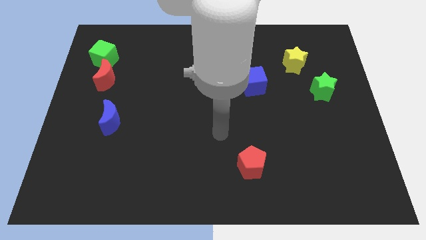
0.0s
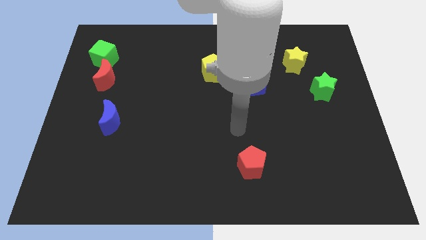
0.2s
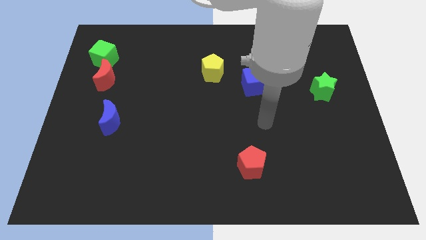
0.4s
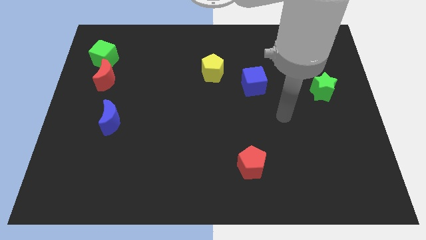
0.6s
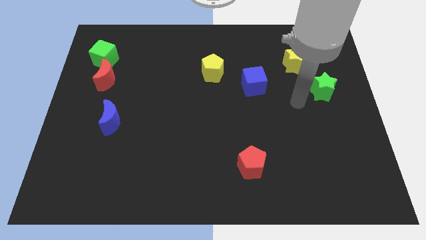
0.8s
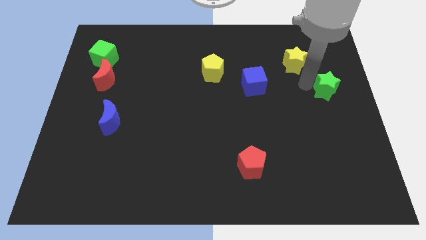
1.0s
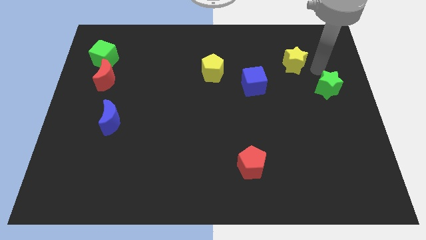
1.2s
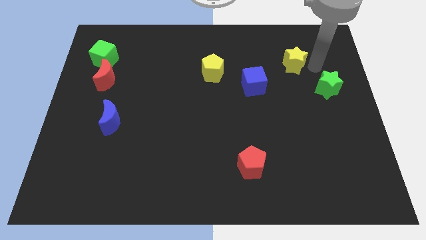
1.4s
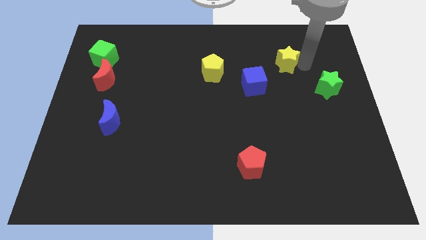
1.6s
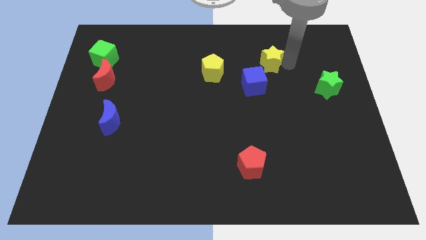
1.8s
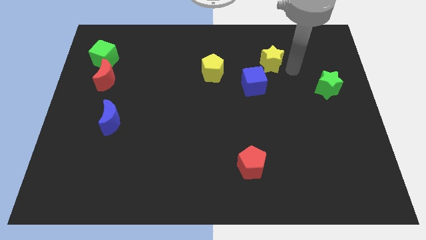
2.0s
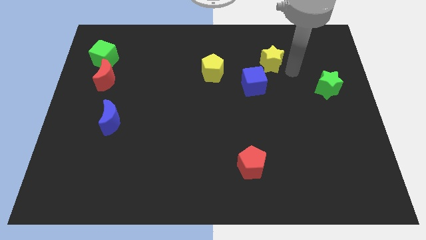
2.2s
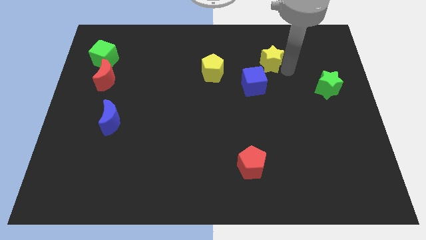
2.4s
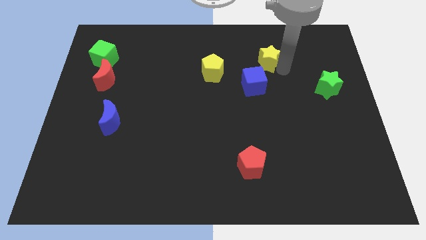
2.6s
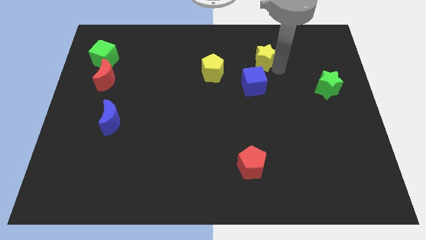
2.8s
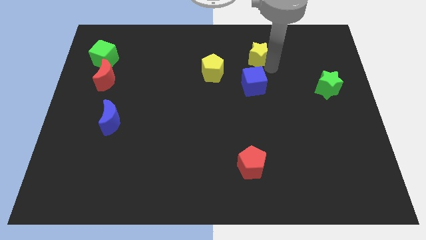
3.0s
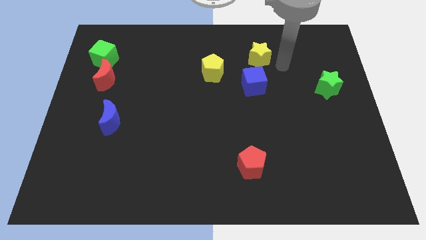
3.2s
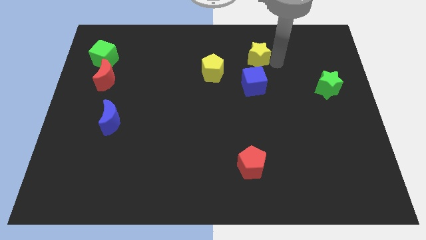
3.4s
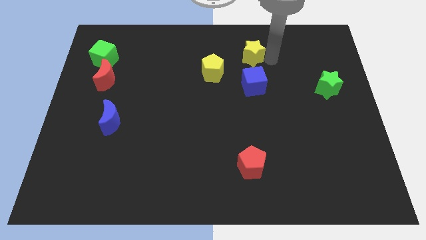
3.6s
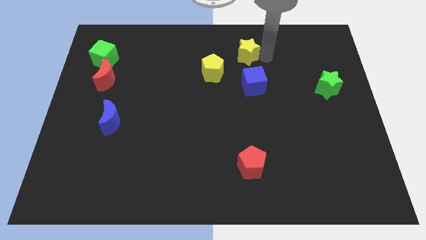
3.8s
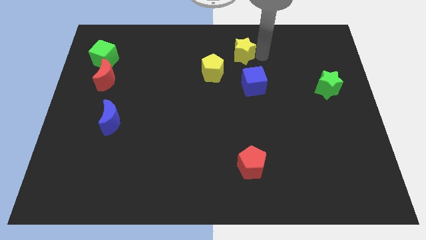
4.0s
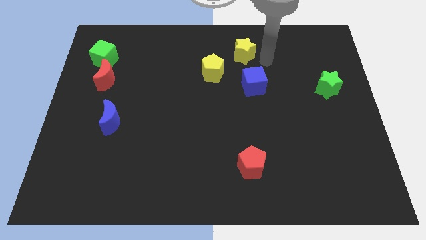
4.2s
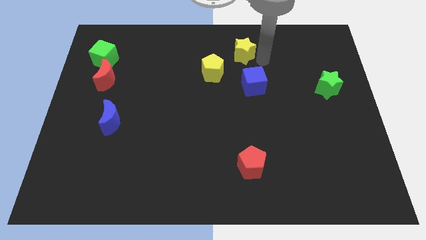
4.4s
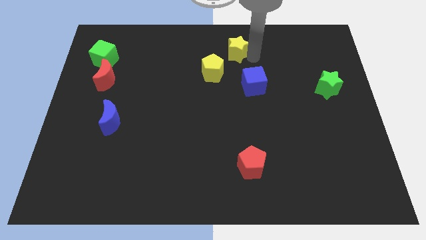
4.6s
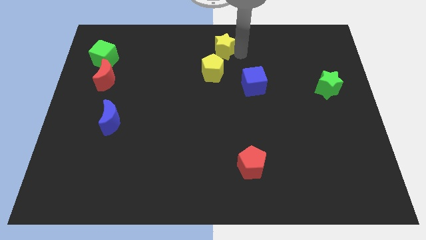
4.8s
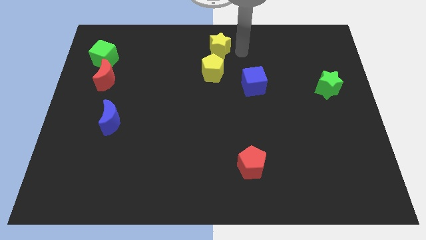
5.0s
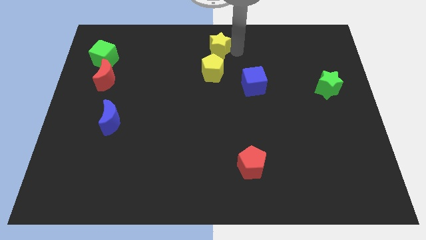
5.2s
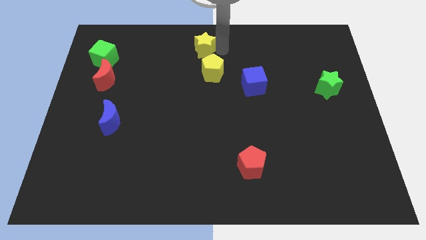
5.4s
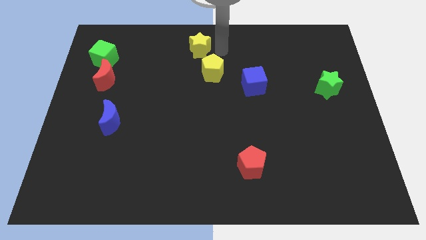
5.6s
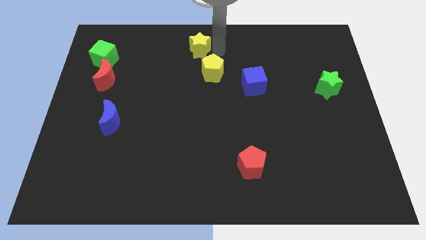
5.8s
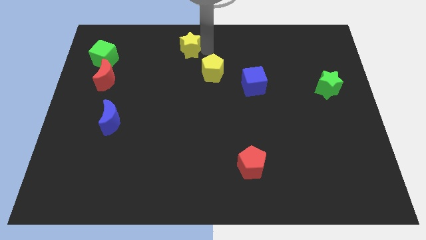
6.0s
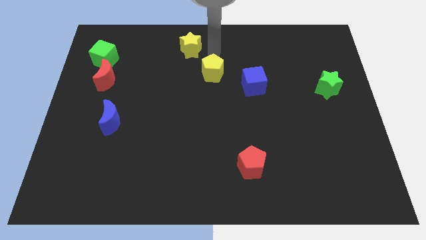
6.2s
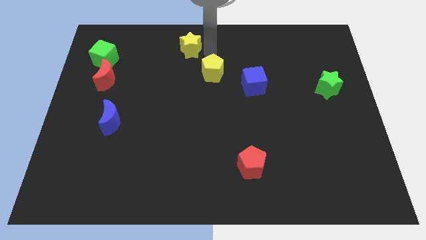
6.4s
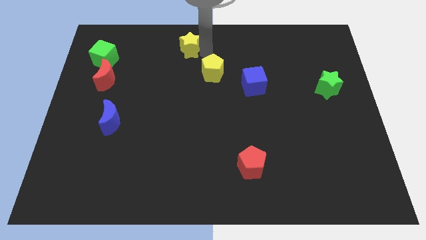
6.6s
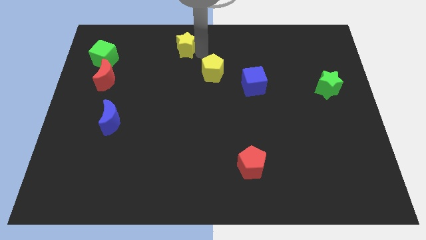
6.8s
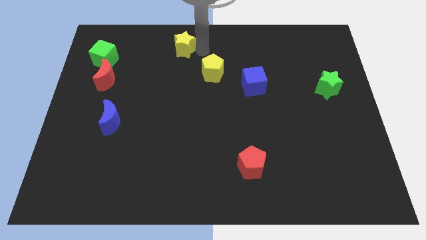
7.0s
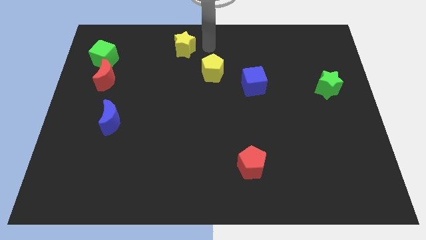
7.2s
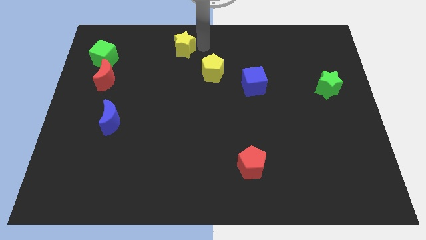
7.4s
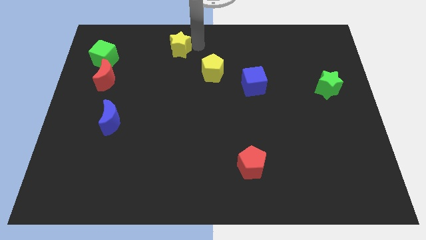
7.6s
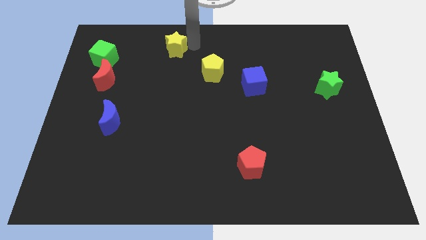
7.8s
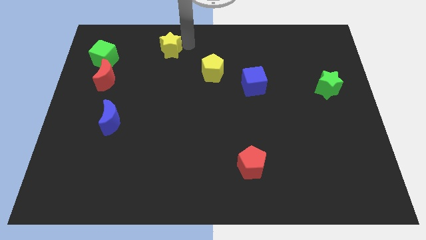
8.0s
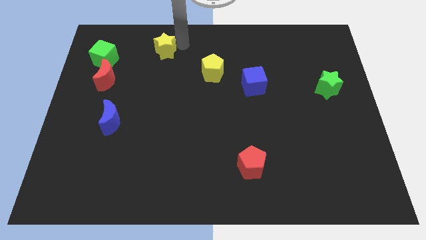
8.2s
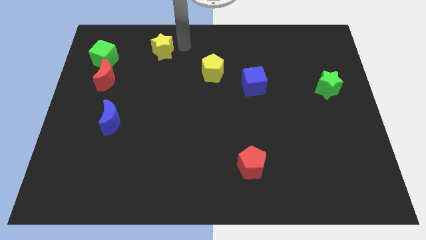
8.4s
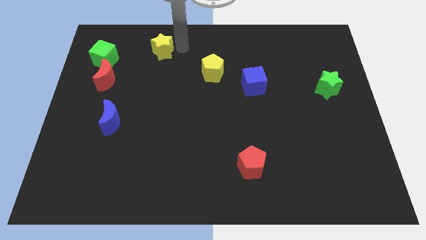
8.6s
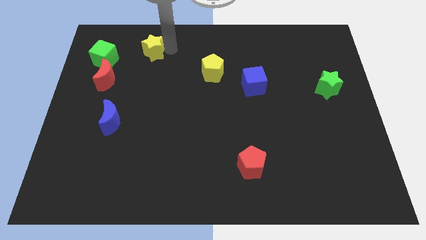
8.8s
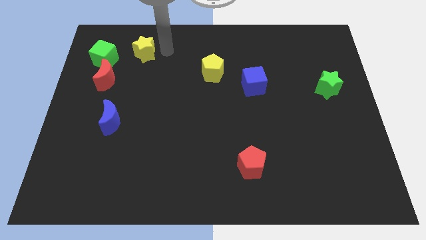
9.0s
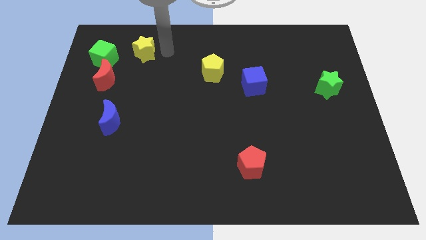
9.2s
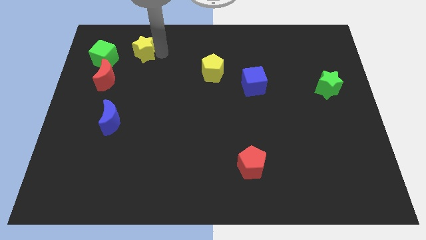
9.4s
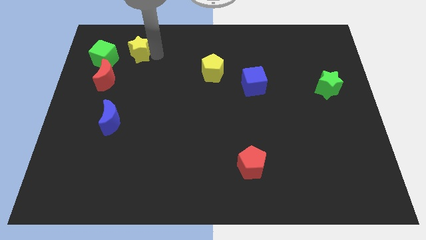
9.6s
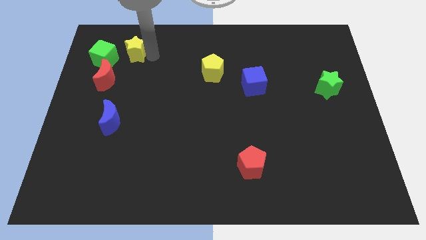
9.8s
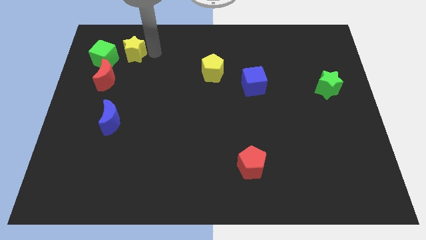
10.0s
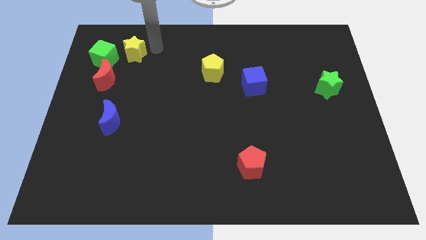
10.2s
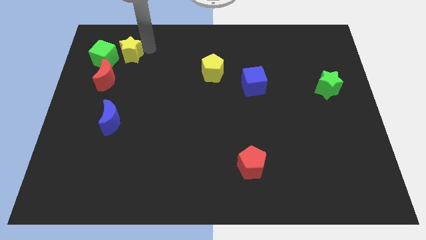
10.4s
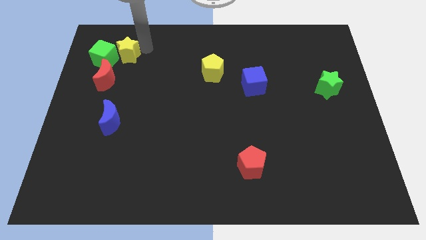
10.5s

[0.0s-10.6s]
slide the yellow star to the green cube

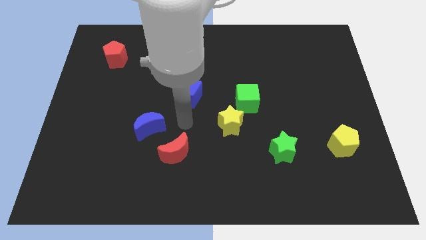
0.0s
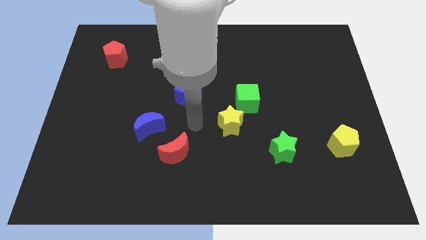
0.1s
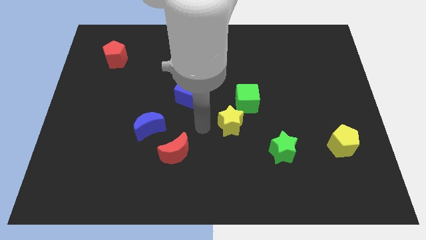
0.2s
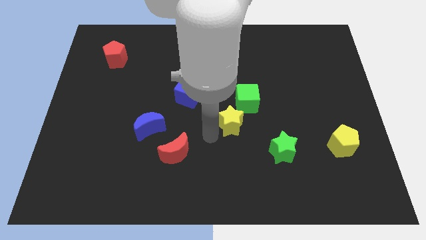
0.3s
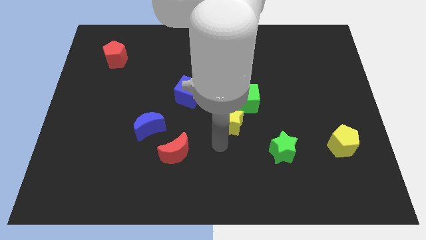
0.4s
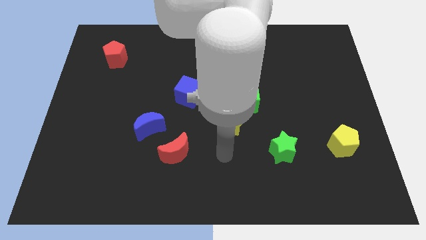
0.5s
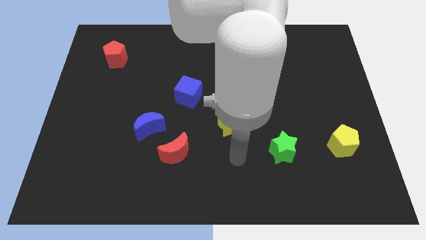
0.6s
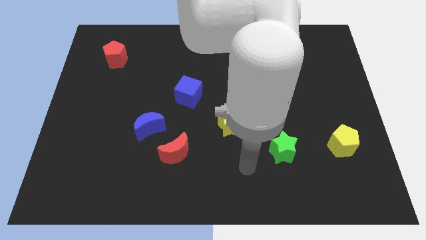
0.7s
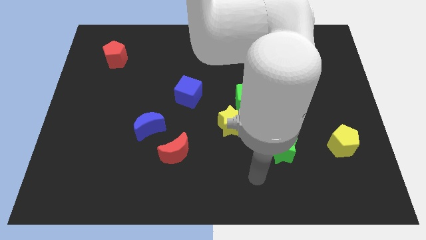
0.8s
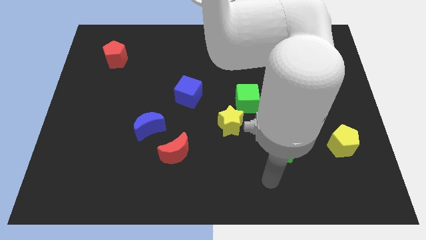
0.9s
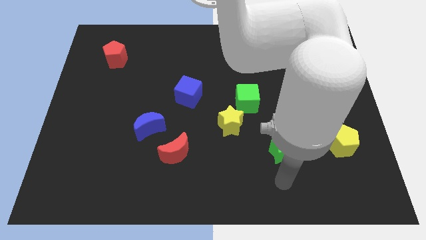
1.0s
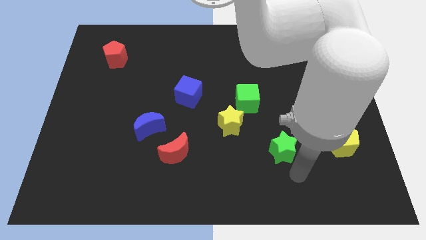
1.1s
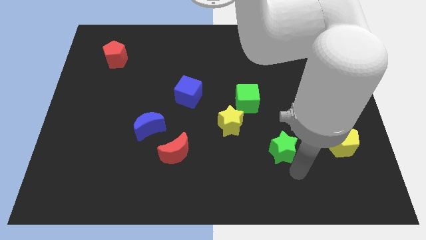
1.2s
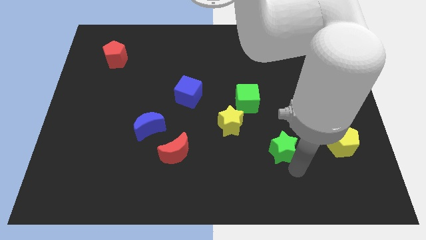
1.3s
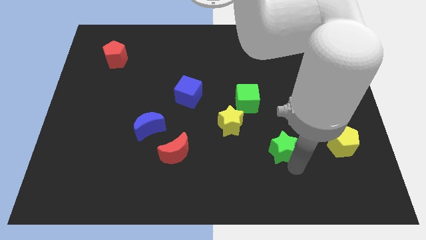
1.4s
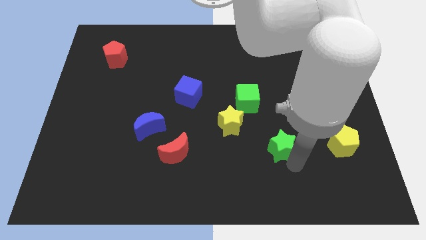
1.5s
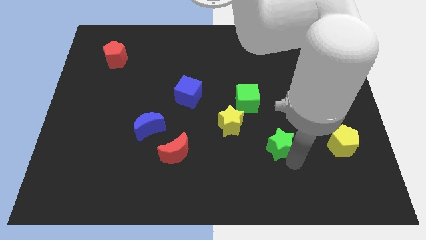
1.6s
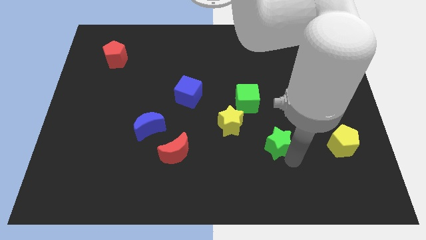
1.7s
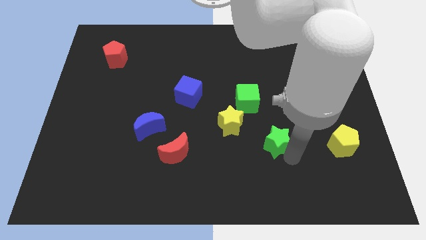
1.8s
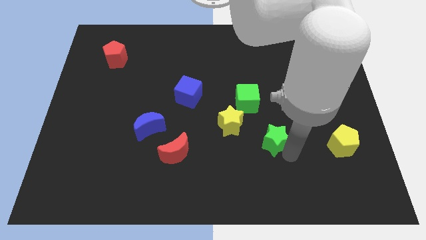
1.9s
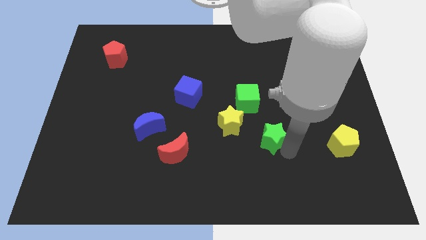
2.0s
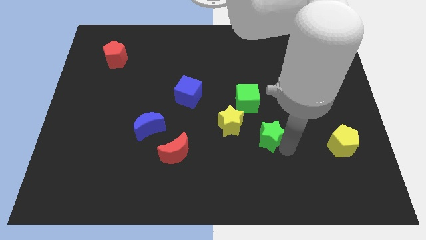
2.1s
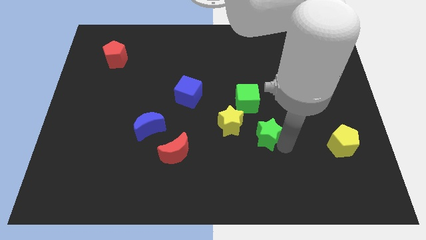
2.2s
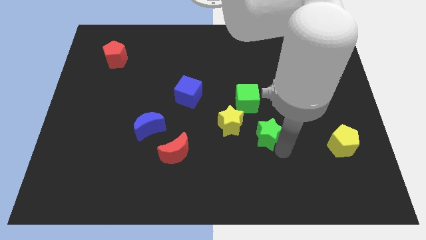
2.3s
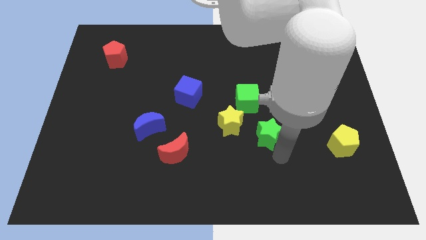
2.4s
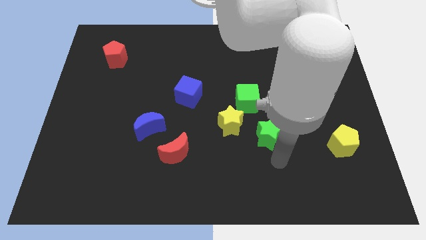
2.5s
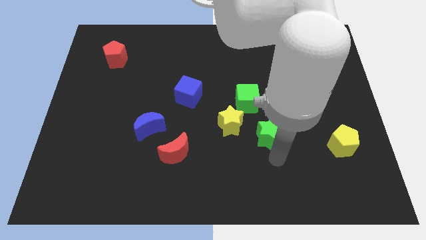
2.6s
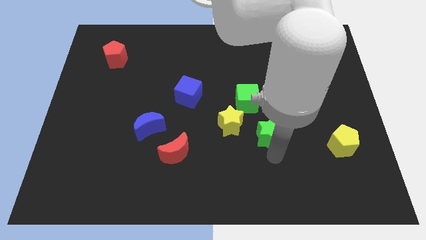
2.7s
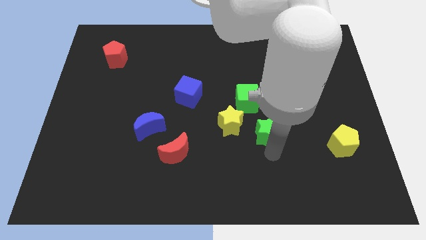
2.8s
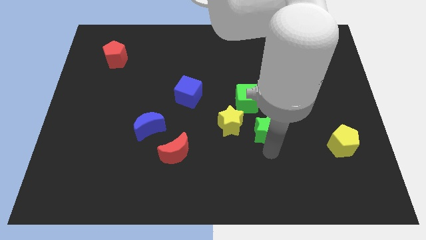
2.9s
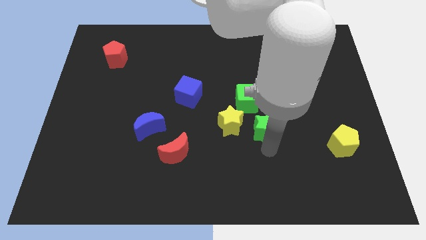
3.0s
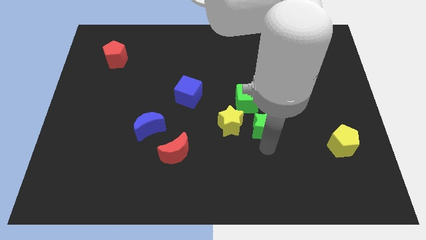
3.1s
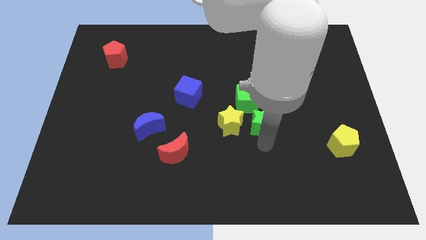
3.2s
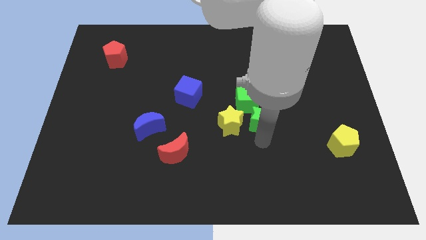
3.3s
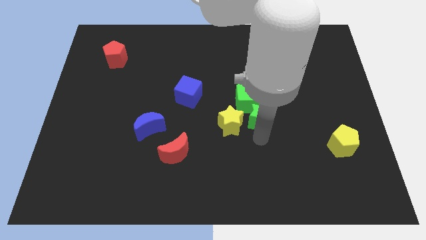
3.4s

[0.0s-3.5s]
push the green star close to the green cube
